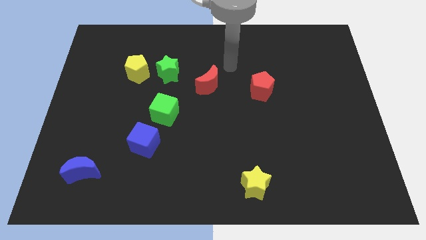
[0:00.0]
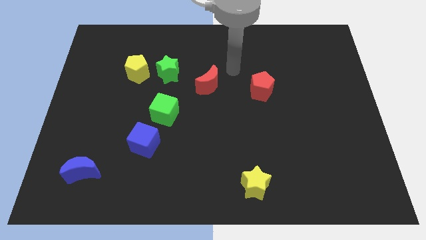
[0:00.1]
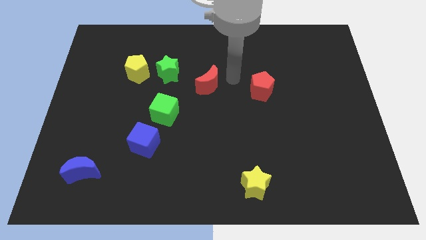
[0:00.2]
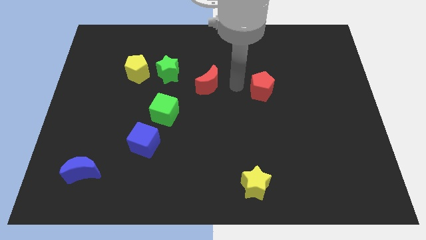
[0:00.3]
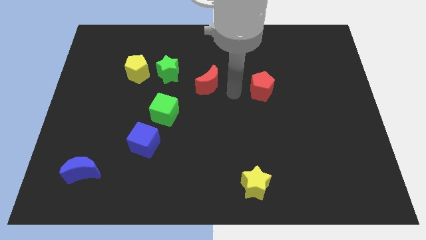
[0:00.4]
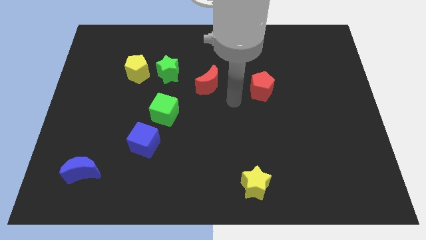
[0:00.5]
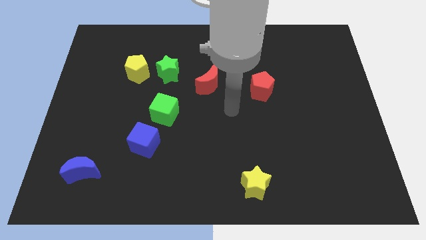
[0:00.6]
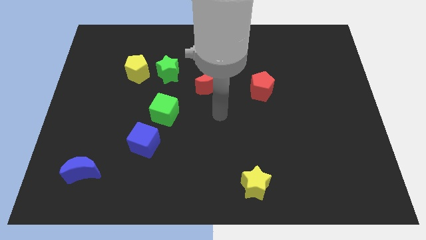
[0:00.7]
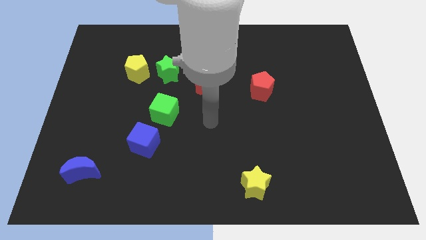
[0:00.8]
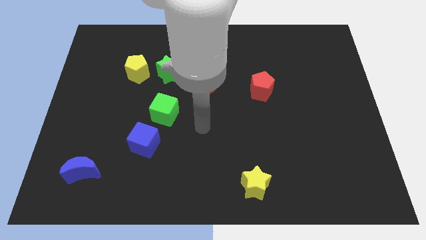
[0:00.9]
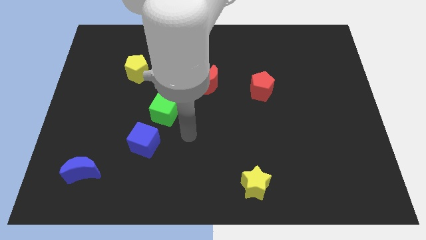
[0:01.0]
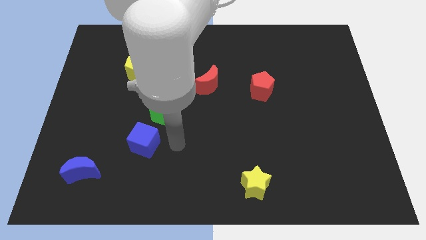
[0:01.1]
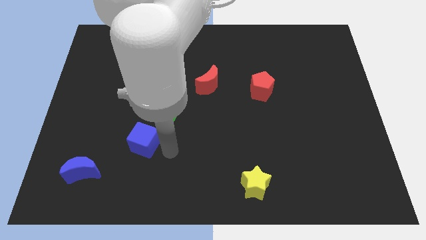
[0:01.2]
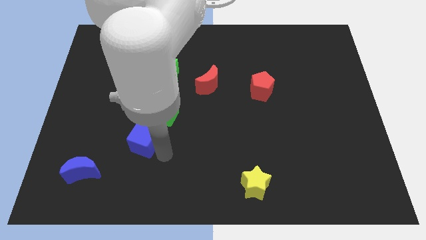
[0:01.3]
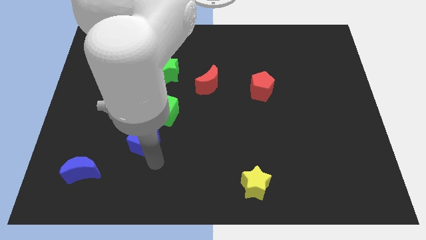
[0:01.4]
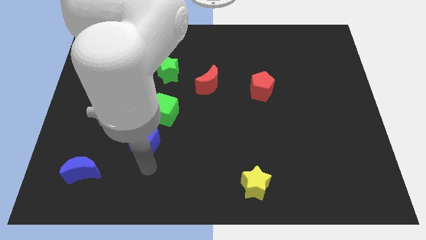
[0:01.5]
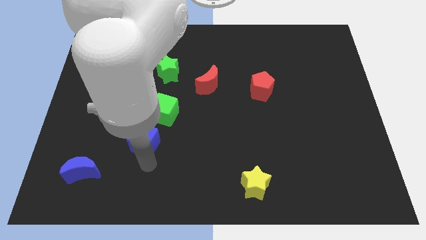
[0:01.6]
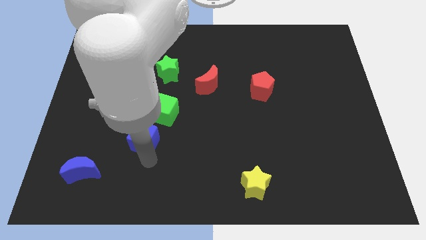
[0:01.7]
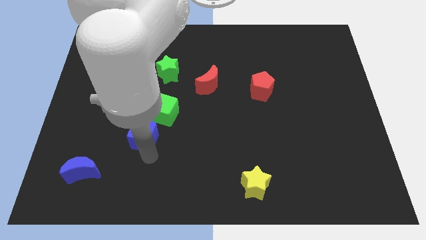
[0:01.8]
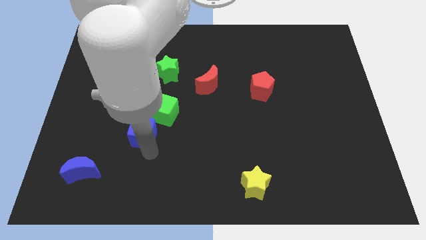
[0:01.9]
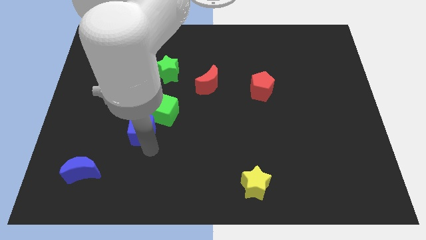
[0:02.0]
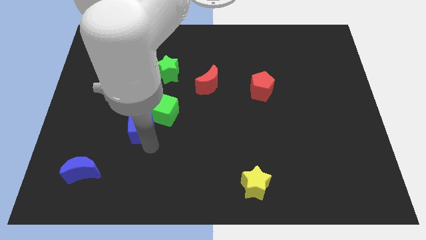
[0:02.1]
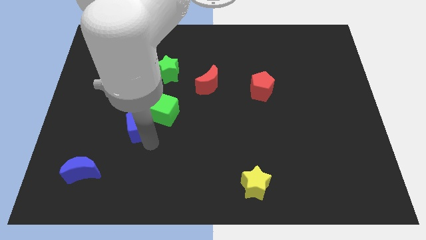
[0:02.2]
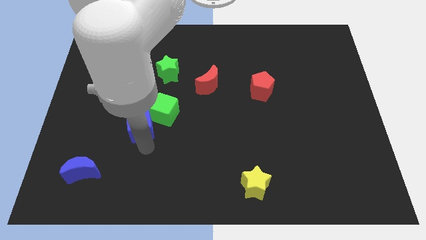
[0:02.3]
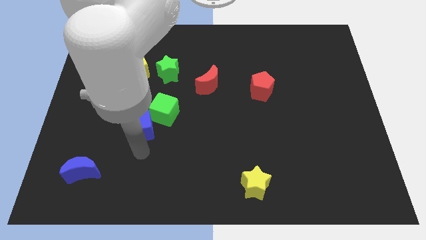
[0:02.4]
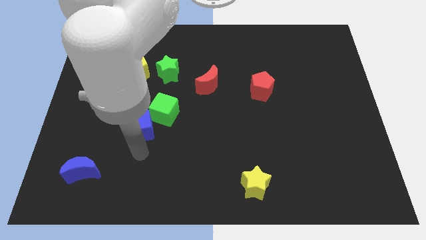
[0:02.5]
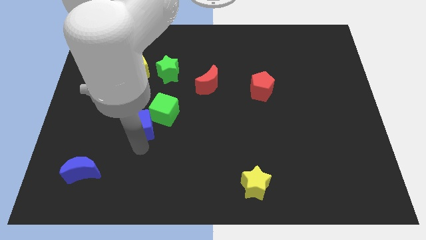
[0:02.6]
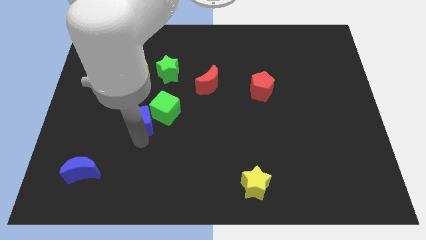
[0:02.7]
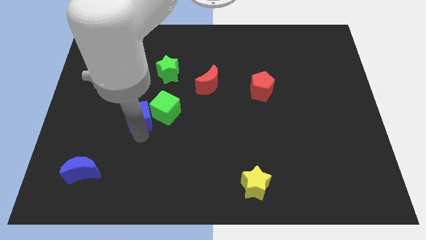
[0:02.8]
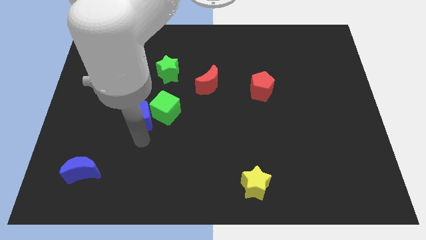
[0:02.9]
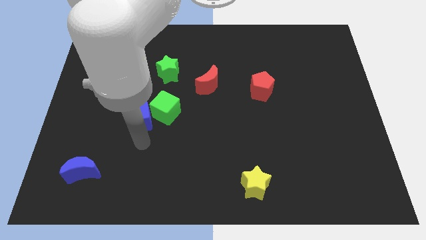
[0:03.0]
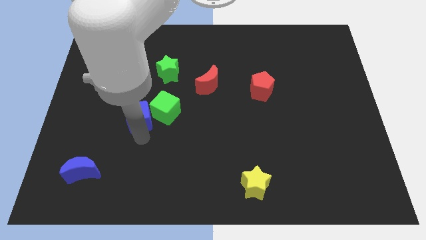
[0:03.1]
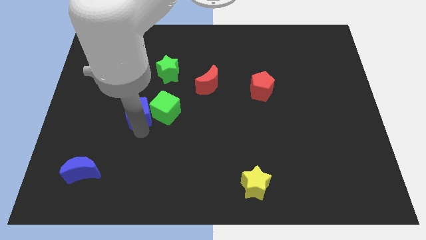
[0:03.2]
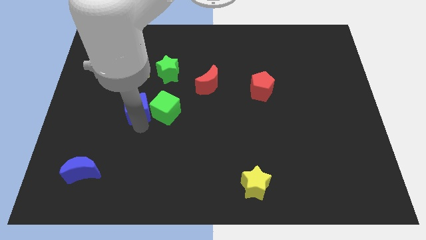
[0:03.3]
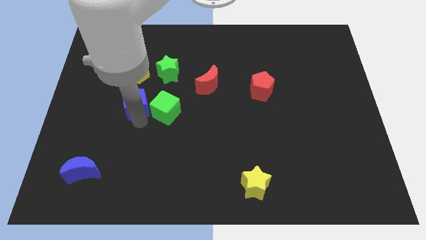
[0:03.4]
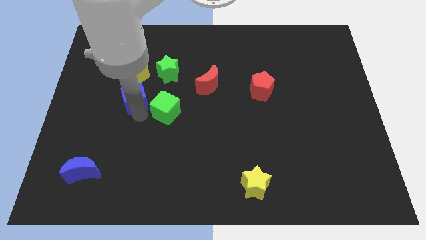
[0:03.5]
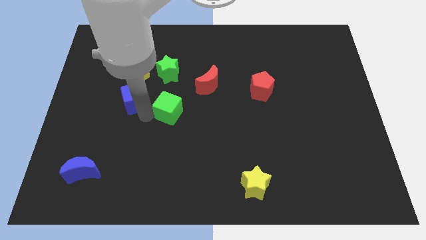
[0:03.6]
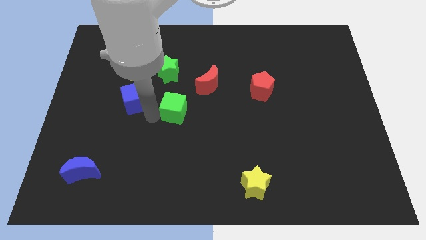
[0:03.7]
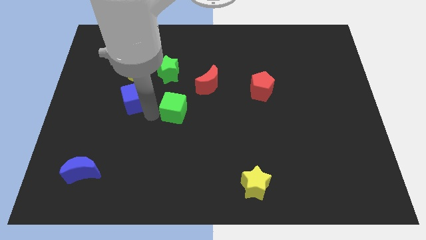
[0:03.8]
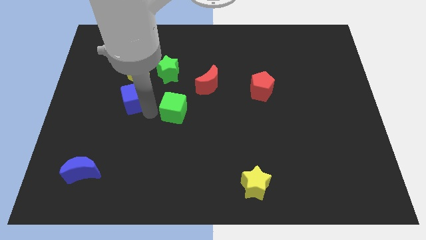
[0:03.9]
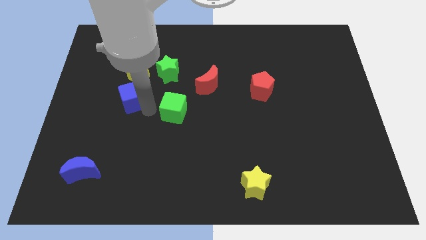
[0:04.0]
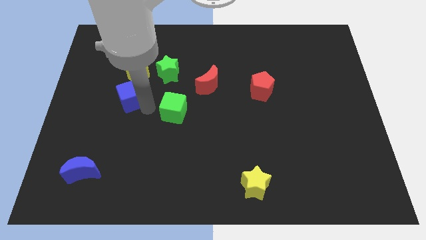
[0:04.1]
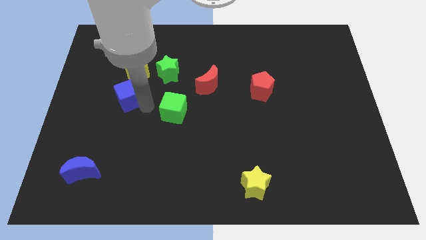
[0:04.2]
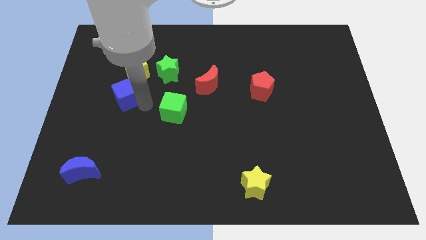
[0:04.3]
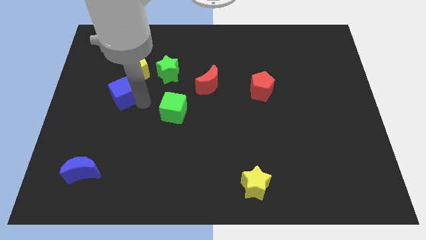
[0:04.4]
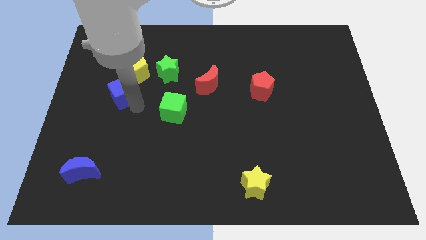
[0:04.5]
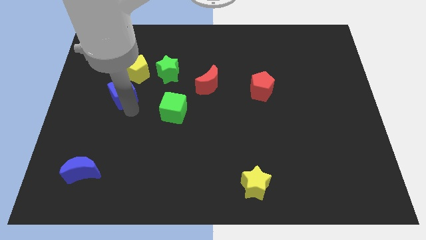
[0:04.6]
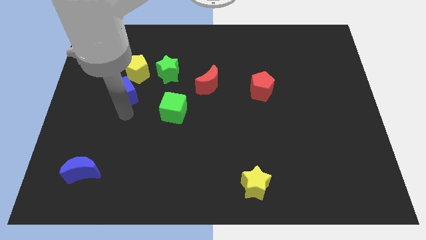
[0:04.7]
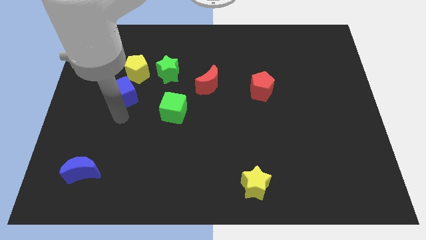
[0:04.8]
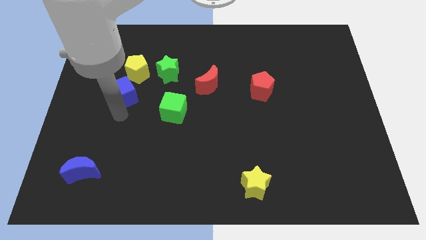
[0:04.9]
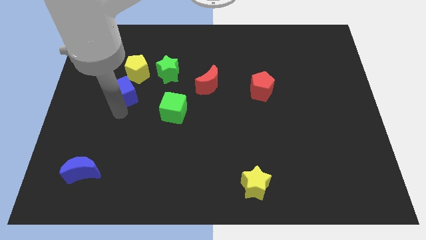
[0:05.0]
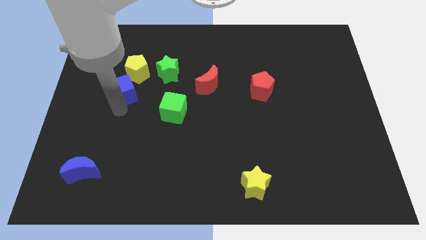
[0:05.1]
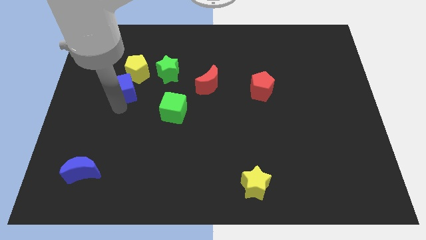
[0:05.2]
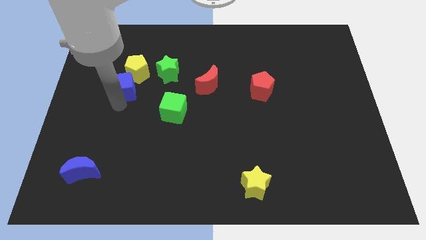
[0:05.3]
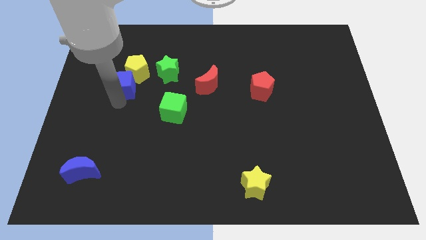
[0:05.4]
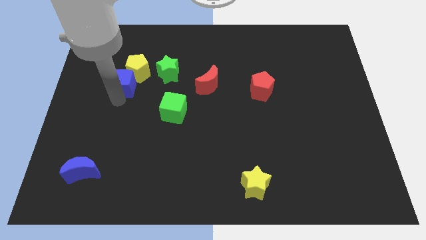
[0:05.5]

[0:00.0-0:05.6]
move the blue cube to the left side of the green star

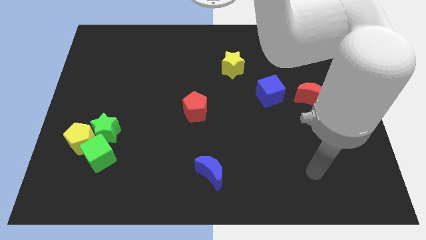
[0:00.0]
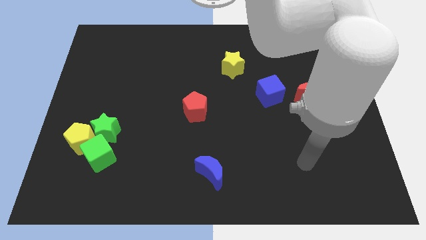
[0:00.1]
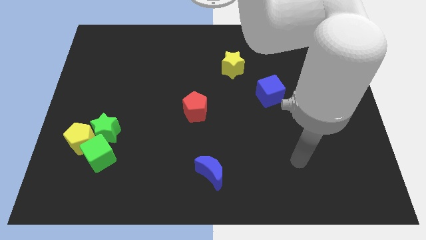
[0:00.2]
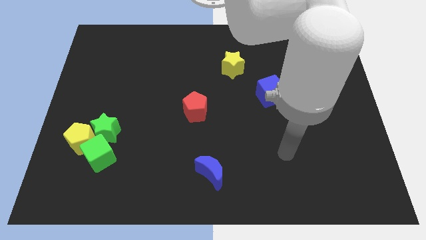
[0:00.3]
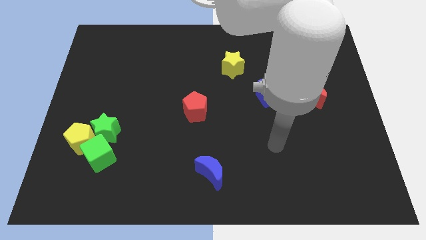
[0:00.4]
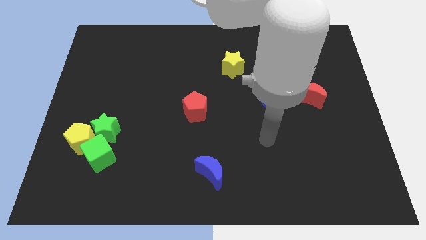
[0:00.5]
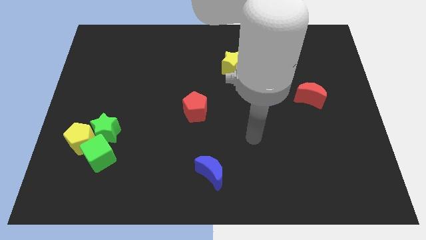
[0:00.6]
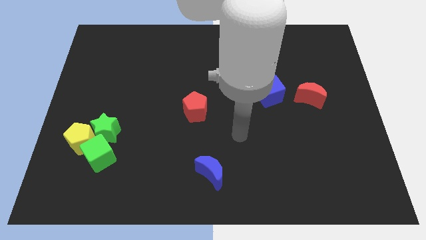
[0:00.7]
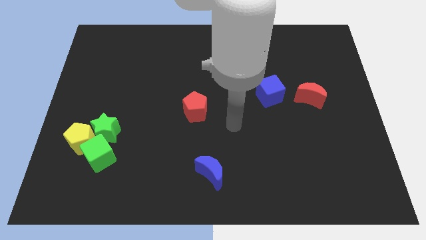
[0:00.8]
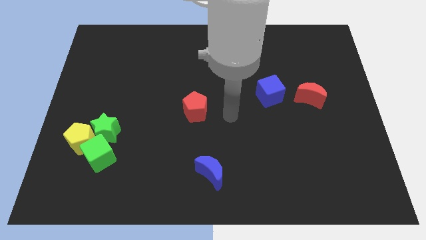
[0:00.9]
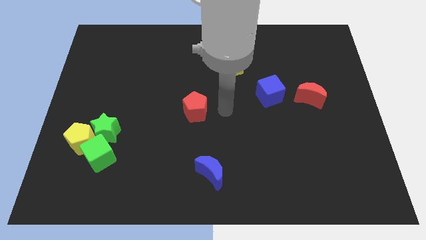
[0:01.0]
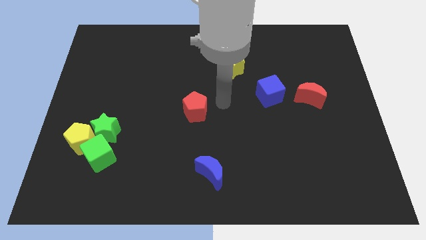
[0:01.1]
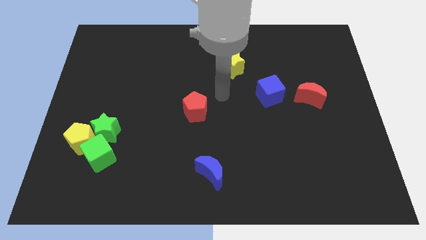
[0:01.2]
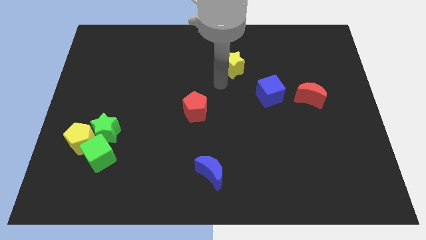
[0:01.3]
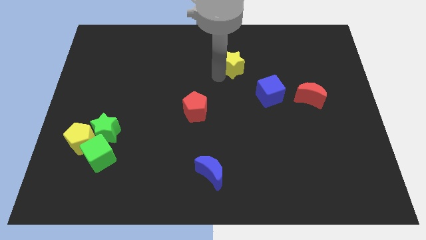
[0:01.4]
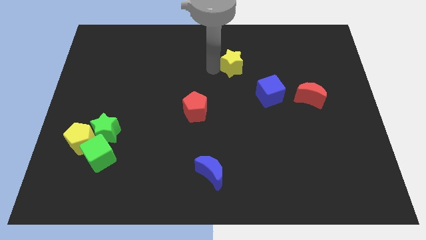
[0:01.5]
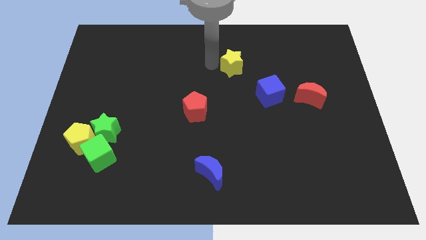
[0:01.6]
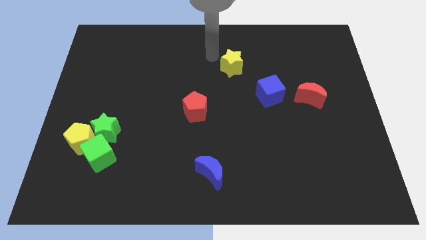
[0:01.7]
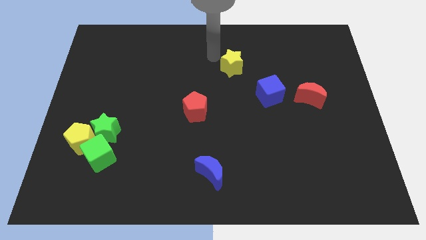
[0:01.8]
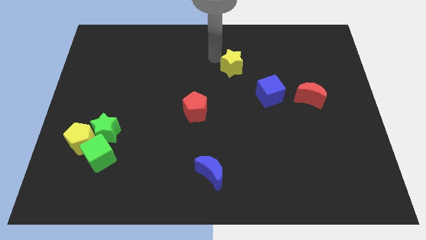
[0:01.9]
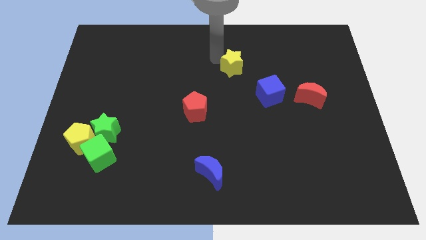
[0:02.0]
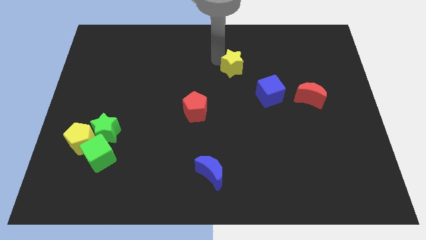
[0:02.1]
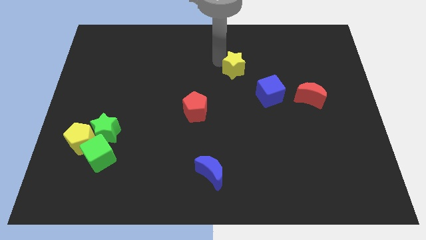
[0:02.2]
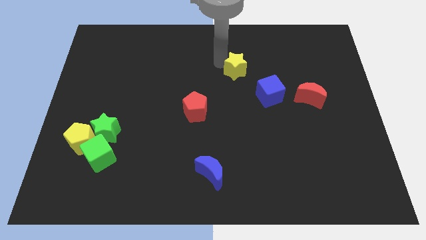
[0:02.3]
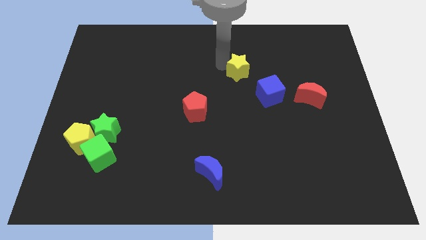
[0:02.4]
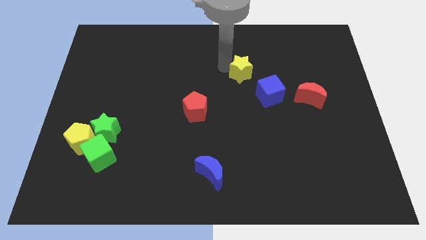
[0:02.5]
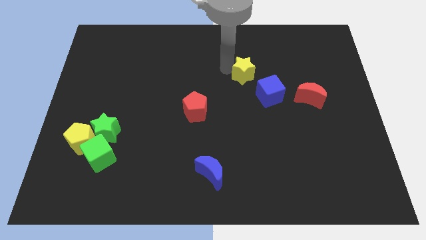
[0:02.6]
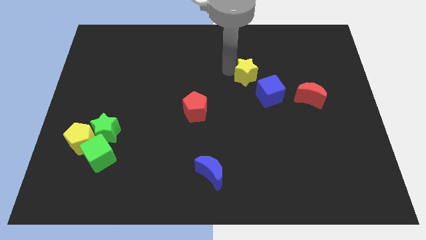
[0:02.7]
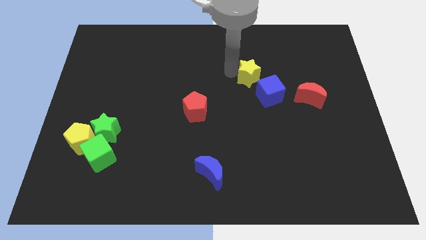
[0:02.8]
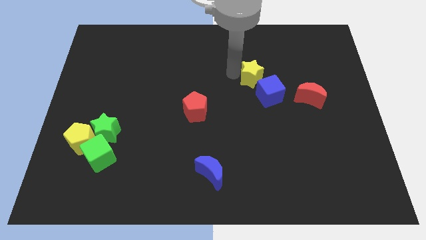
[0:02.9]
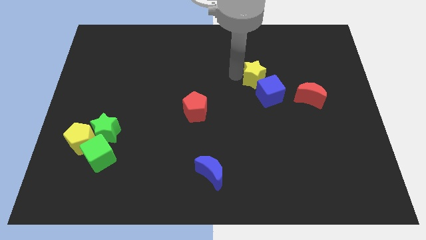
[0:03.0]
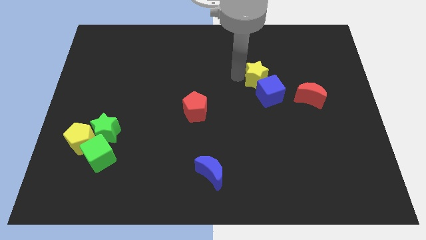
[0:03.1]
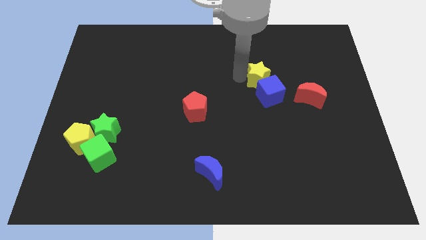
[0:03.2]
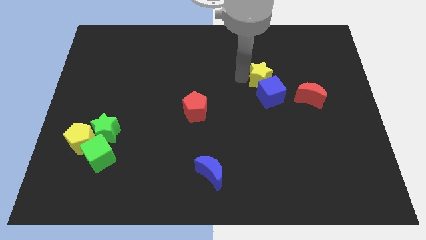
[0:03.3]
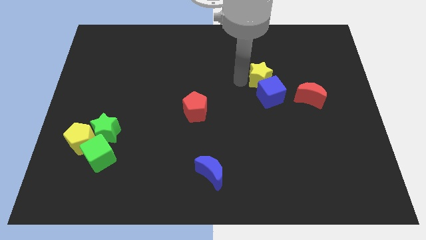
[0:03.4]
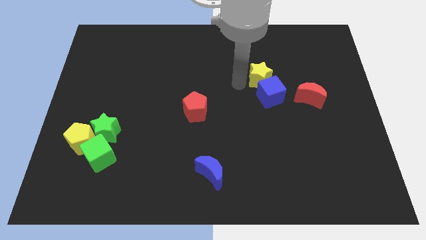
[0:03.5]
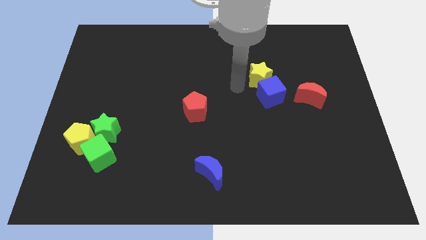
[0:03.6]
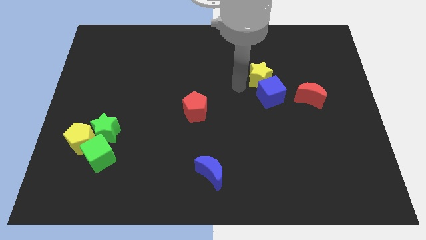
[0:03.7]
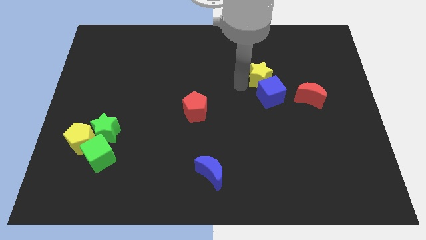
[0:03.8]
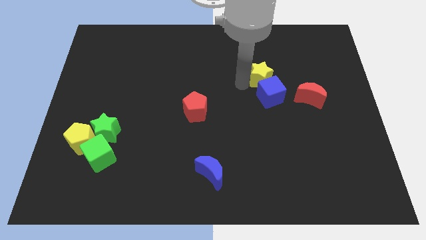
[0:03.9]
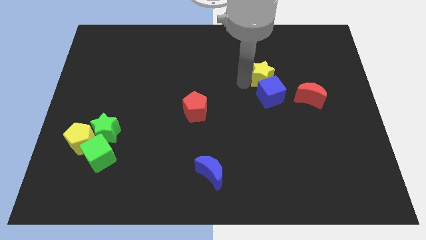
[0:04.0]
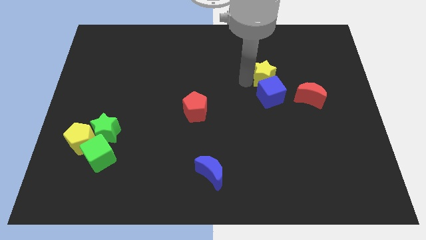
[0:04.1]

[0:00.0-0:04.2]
slide the yellow star to the top right side of the blue cube
